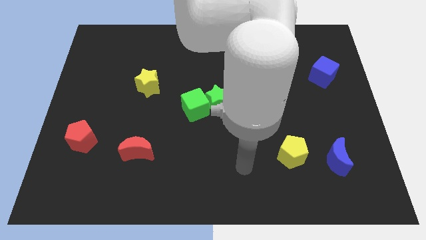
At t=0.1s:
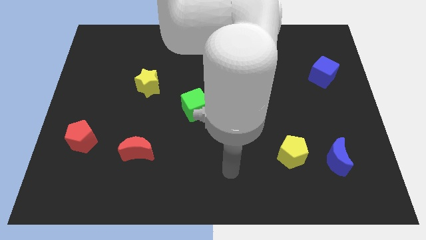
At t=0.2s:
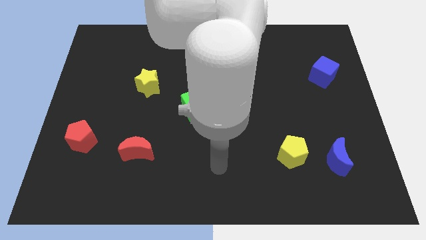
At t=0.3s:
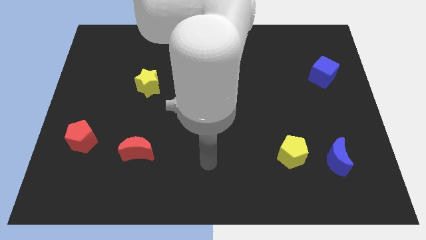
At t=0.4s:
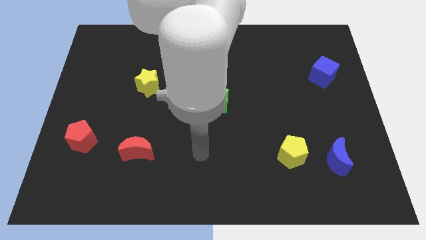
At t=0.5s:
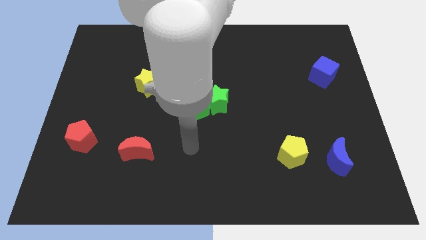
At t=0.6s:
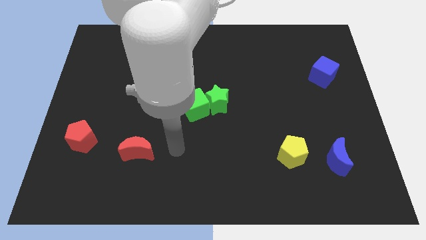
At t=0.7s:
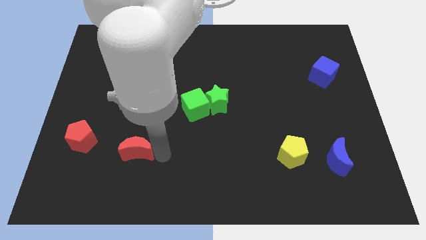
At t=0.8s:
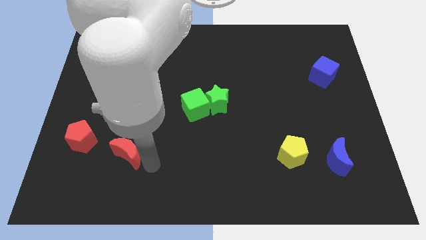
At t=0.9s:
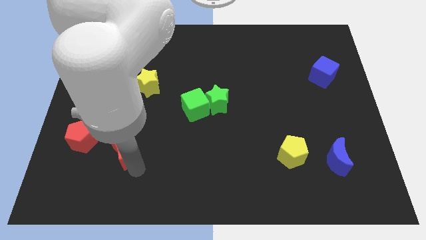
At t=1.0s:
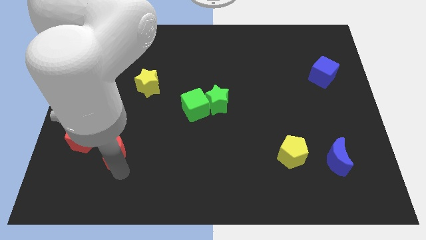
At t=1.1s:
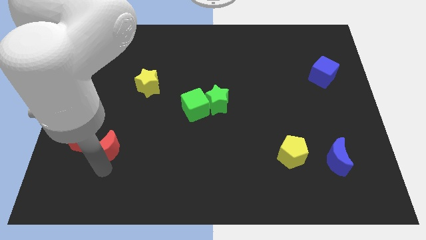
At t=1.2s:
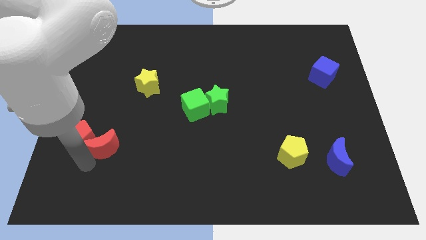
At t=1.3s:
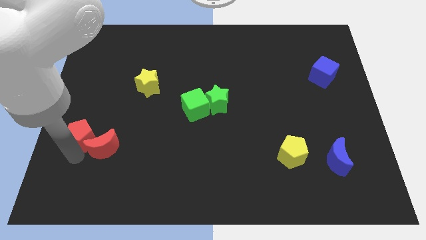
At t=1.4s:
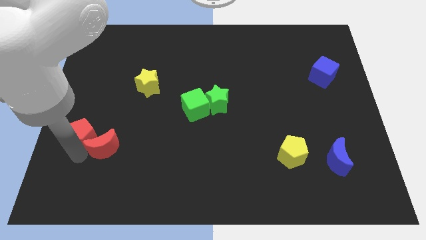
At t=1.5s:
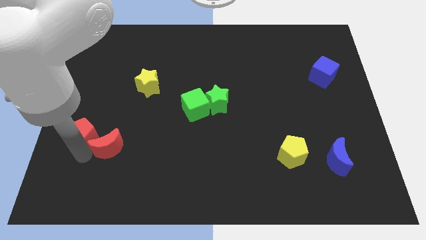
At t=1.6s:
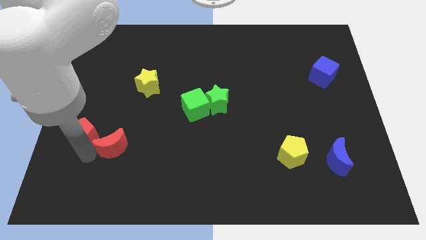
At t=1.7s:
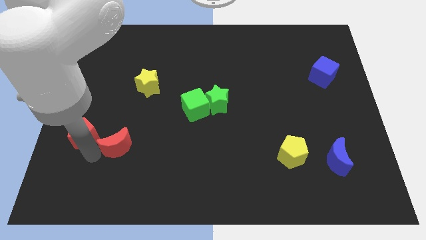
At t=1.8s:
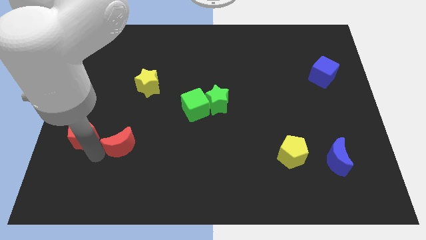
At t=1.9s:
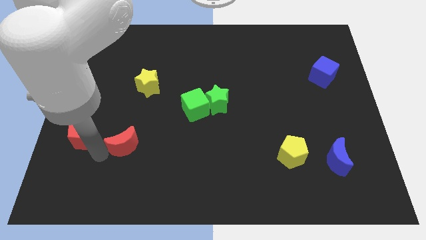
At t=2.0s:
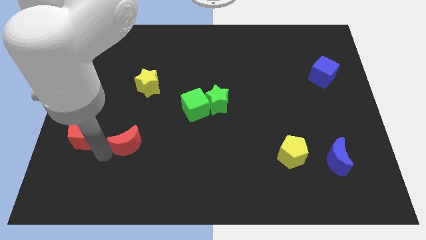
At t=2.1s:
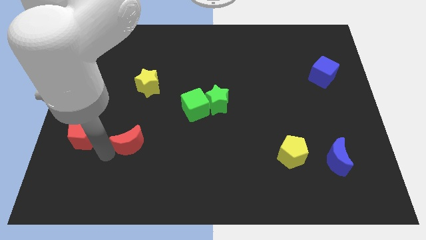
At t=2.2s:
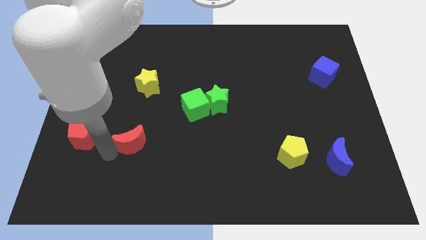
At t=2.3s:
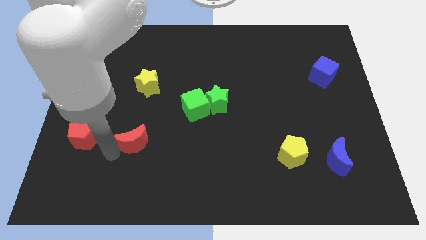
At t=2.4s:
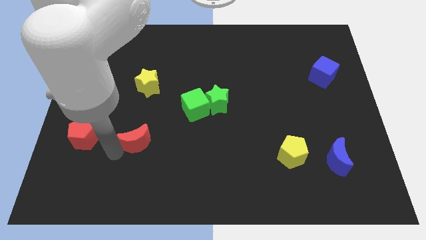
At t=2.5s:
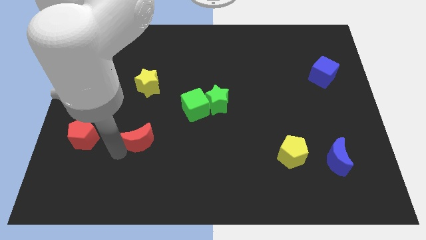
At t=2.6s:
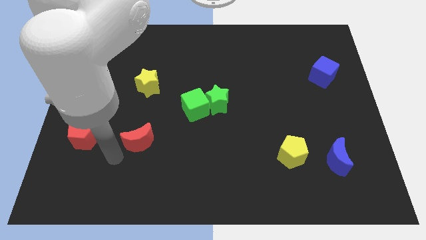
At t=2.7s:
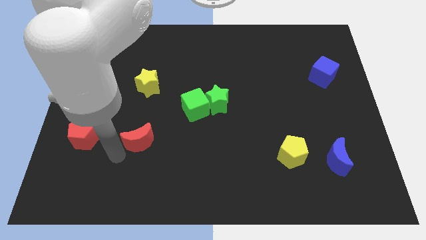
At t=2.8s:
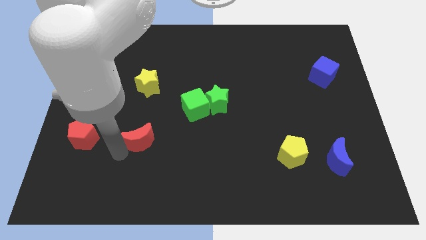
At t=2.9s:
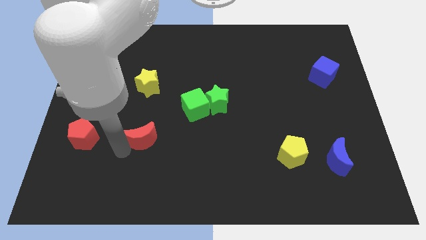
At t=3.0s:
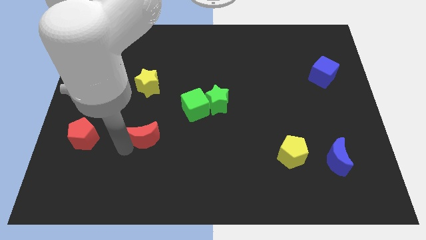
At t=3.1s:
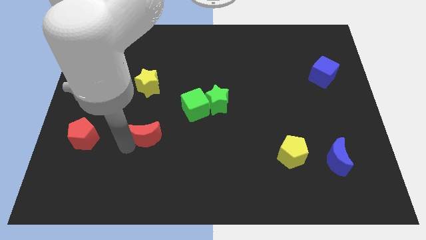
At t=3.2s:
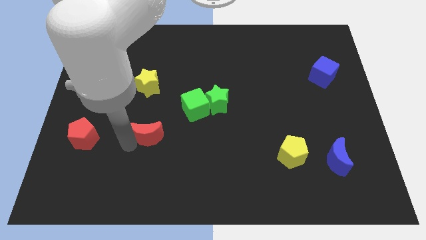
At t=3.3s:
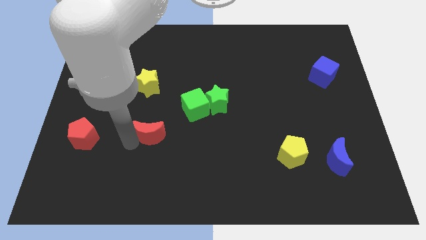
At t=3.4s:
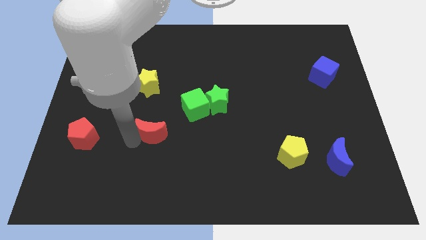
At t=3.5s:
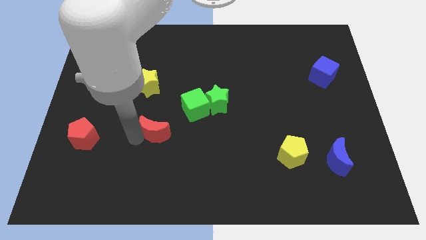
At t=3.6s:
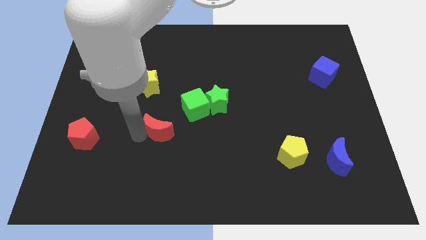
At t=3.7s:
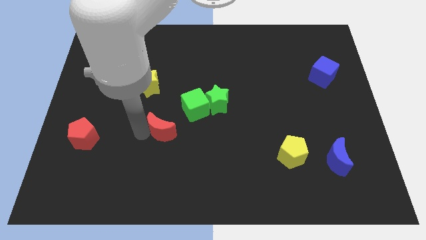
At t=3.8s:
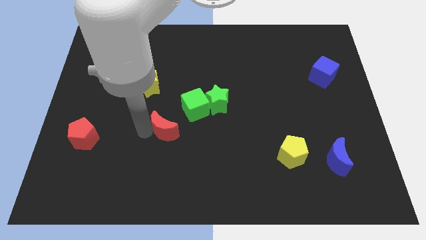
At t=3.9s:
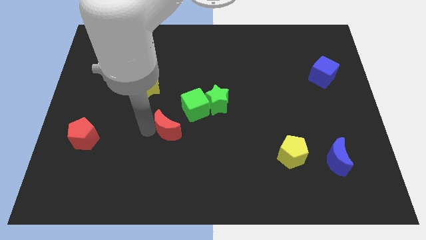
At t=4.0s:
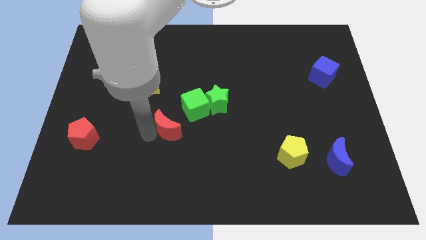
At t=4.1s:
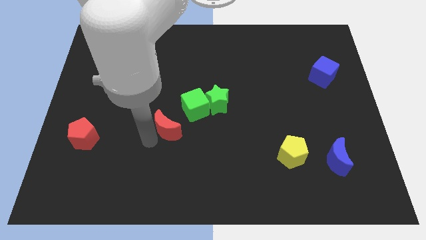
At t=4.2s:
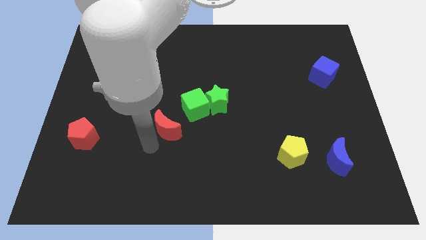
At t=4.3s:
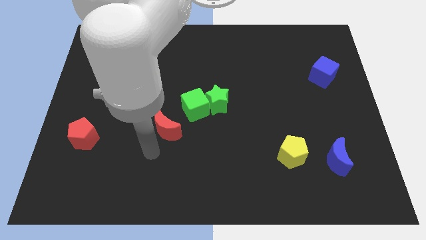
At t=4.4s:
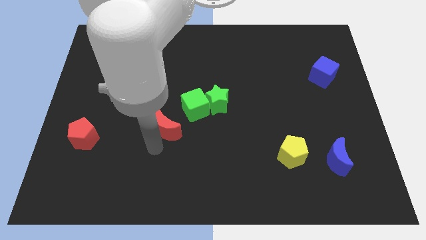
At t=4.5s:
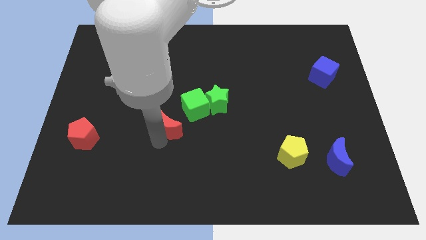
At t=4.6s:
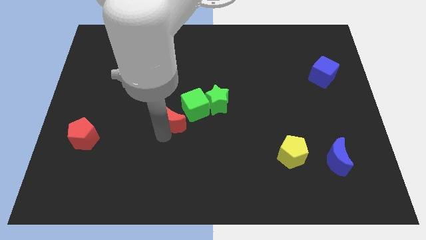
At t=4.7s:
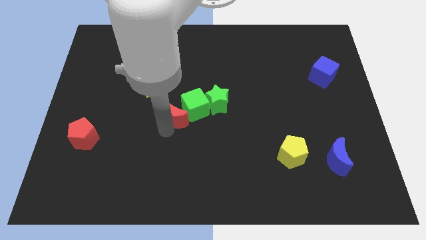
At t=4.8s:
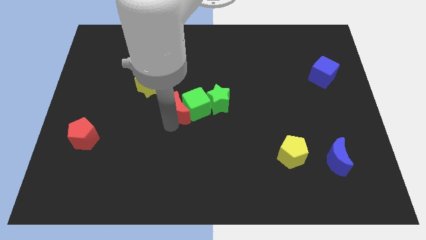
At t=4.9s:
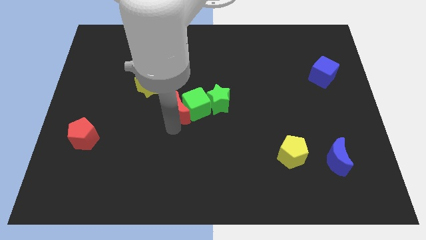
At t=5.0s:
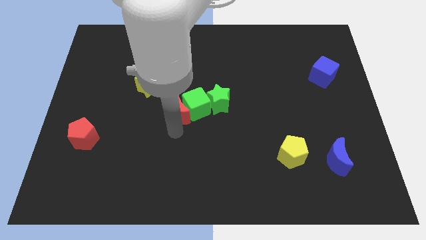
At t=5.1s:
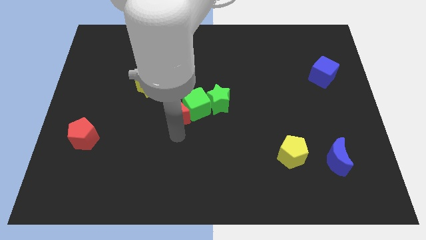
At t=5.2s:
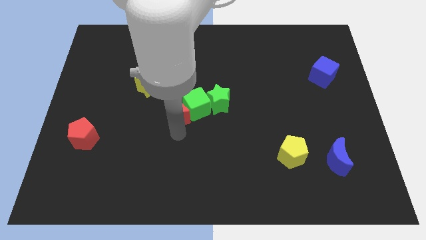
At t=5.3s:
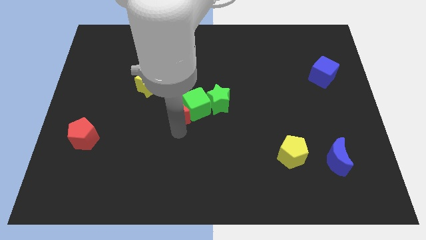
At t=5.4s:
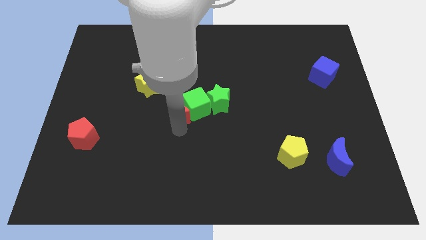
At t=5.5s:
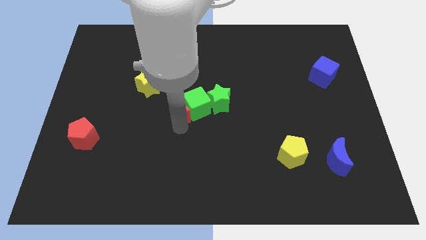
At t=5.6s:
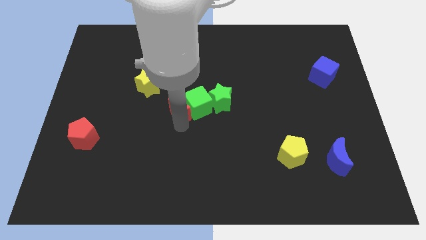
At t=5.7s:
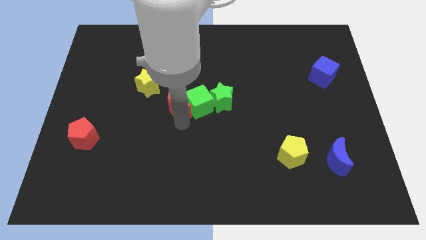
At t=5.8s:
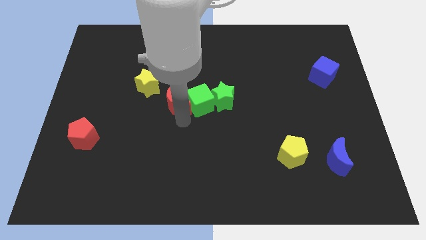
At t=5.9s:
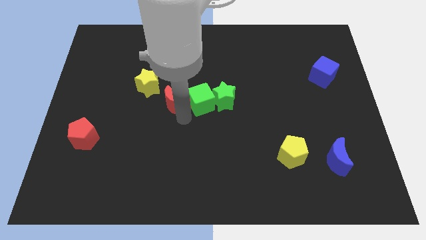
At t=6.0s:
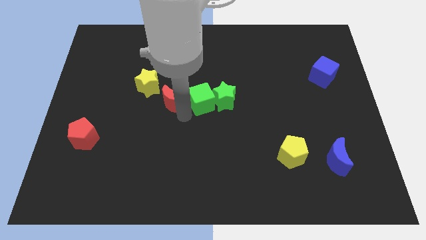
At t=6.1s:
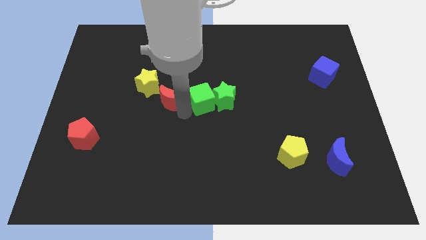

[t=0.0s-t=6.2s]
push the red moon to the right of the yellow star

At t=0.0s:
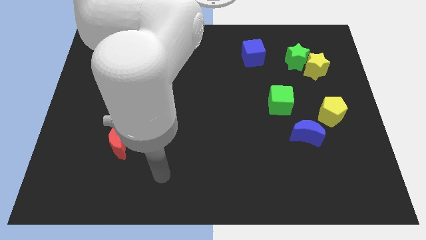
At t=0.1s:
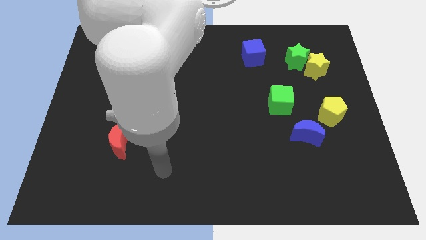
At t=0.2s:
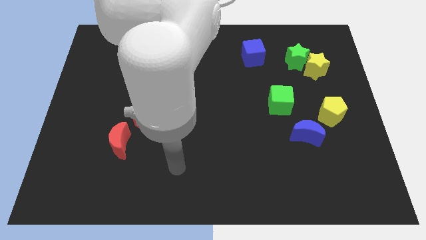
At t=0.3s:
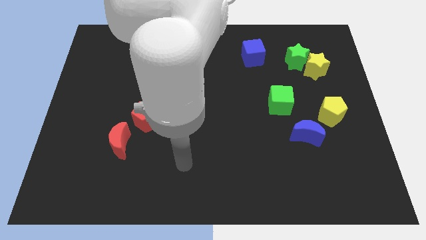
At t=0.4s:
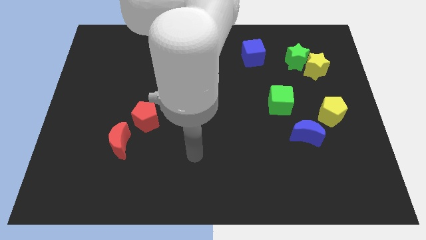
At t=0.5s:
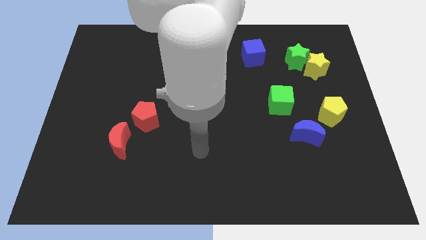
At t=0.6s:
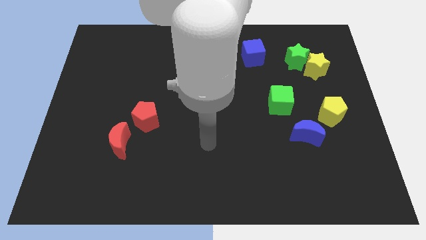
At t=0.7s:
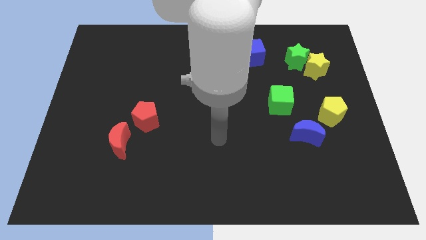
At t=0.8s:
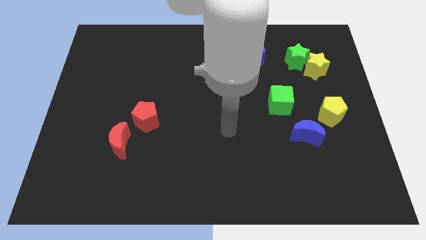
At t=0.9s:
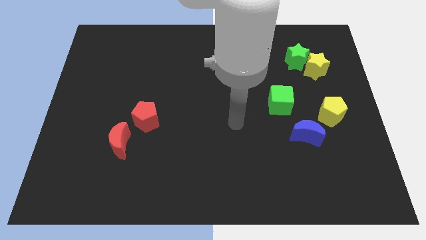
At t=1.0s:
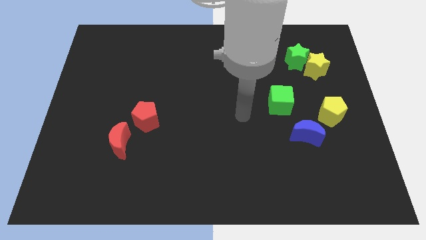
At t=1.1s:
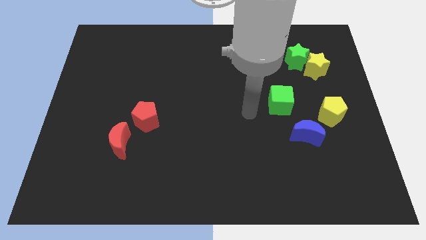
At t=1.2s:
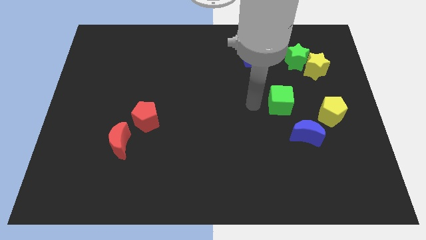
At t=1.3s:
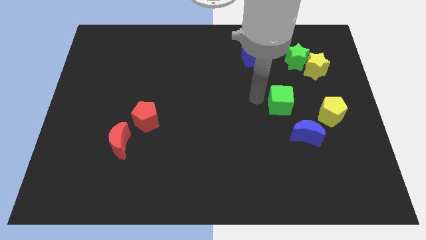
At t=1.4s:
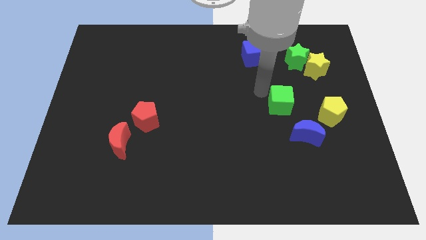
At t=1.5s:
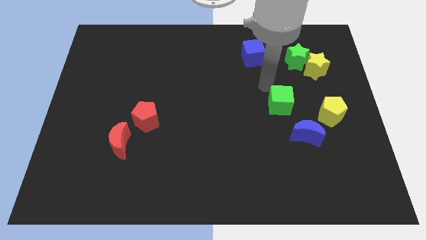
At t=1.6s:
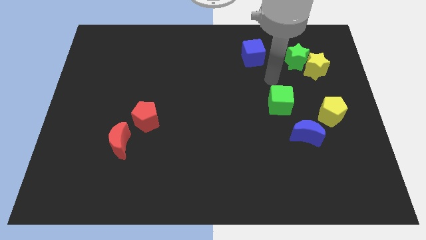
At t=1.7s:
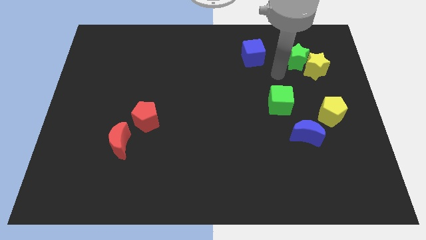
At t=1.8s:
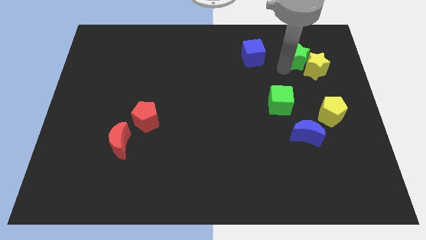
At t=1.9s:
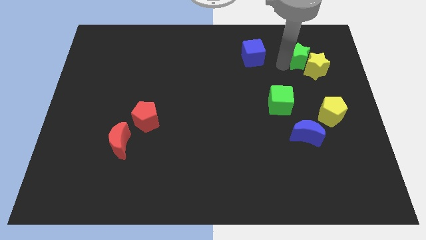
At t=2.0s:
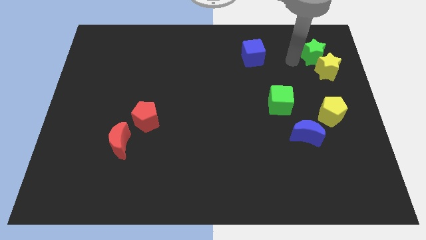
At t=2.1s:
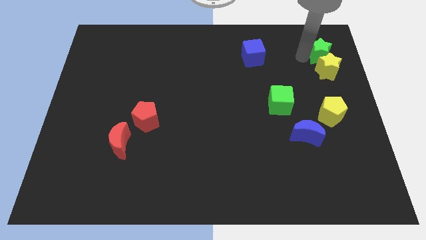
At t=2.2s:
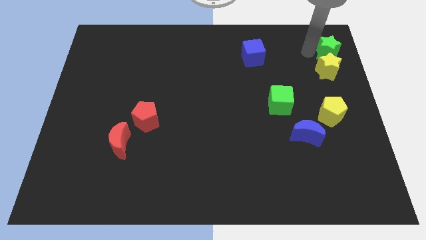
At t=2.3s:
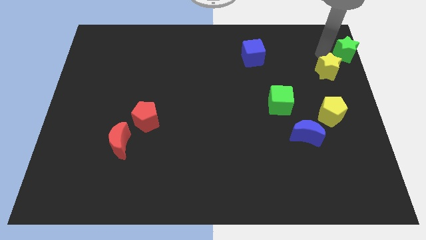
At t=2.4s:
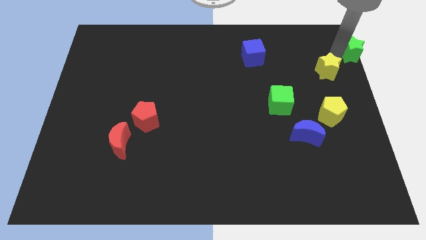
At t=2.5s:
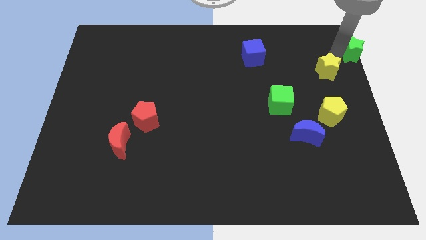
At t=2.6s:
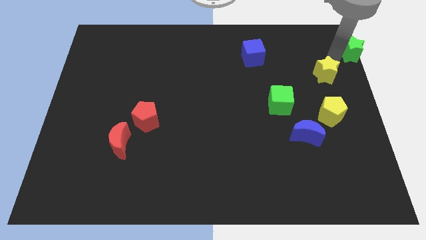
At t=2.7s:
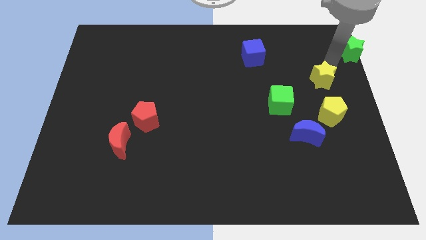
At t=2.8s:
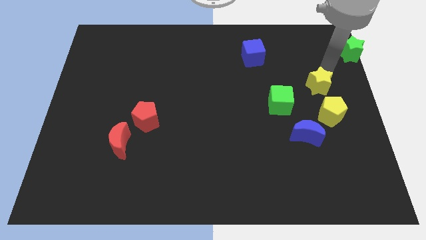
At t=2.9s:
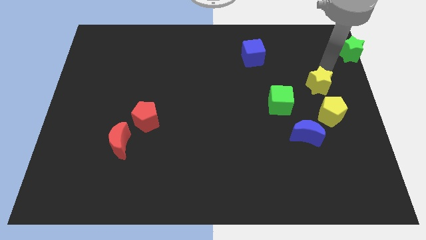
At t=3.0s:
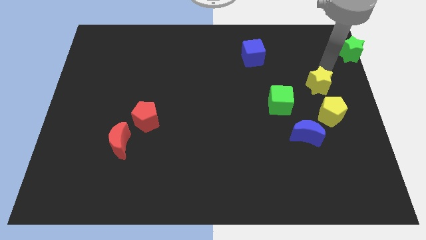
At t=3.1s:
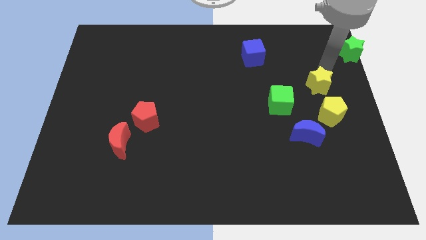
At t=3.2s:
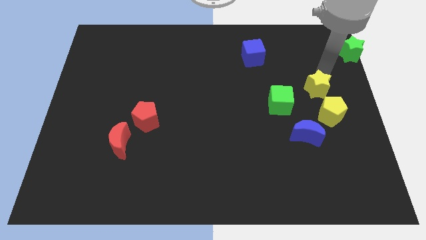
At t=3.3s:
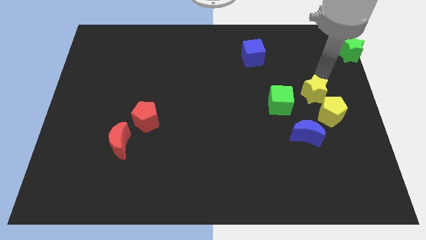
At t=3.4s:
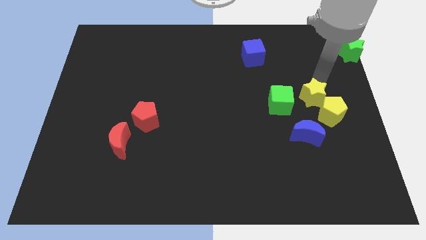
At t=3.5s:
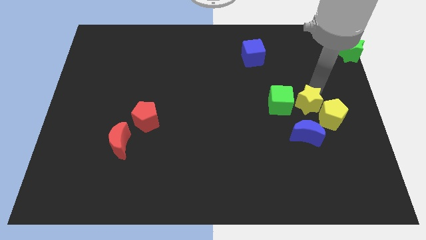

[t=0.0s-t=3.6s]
push the yellow star just left of the yellow pentagon
